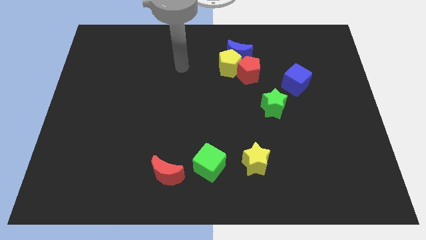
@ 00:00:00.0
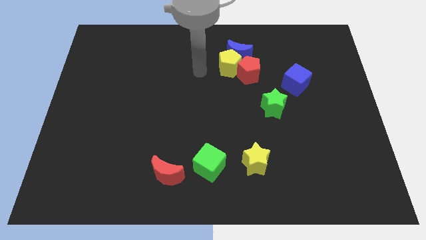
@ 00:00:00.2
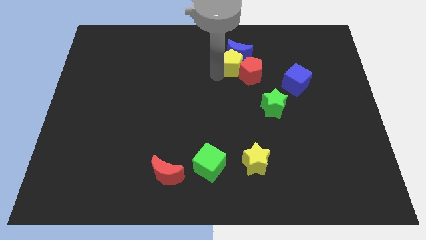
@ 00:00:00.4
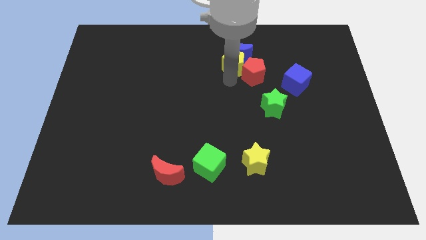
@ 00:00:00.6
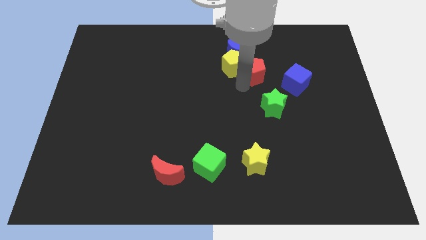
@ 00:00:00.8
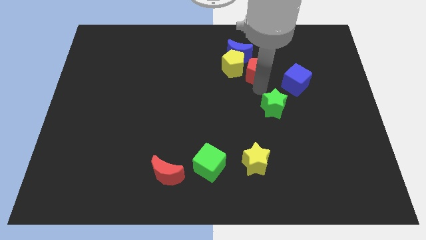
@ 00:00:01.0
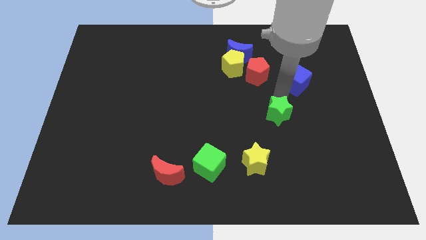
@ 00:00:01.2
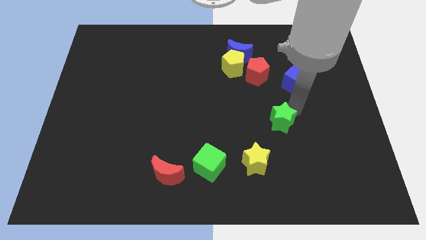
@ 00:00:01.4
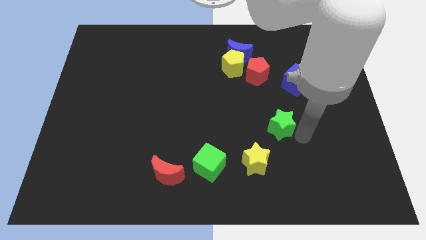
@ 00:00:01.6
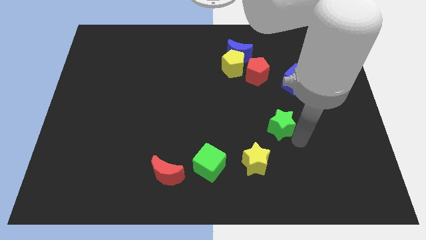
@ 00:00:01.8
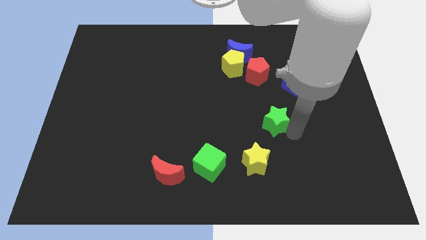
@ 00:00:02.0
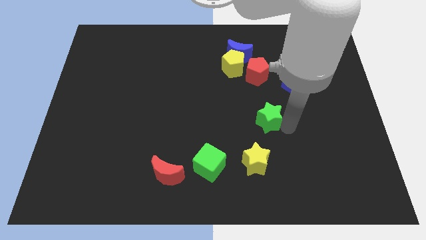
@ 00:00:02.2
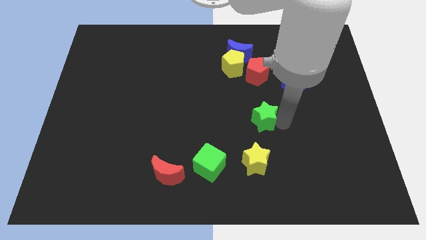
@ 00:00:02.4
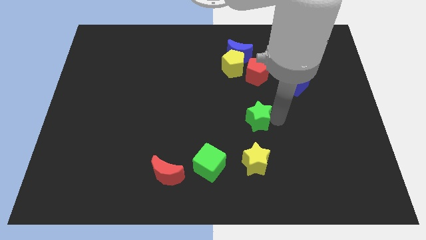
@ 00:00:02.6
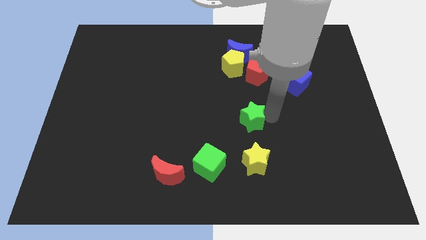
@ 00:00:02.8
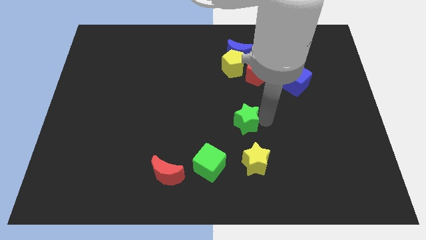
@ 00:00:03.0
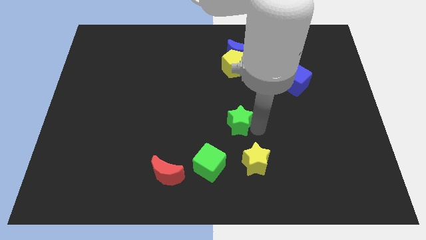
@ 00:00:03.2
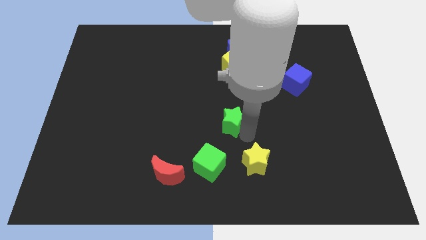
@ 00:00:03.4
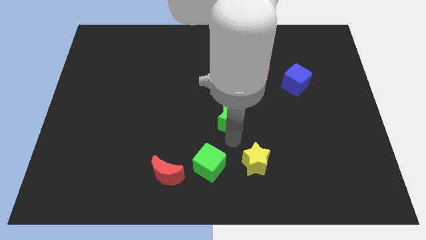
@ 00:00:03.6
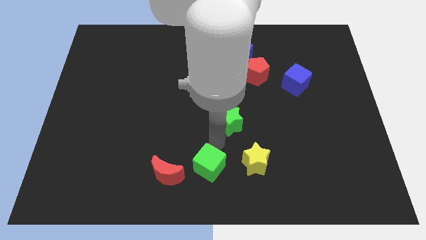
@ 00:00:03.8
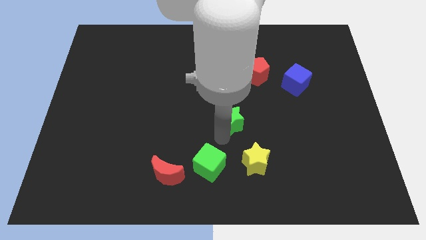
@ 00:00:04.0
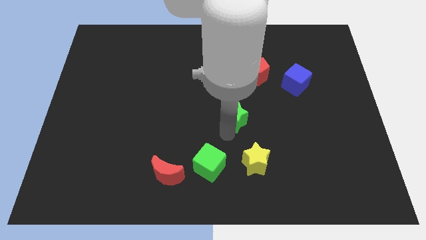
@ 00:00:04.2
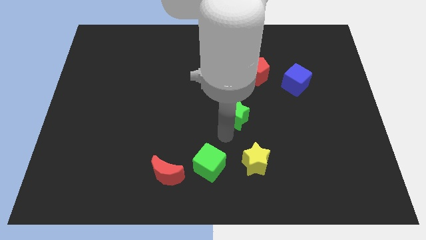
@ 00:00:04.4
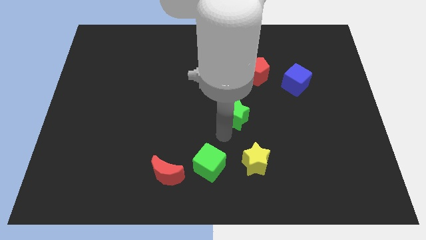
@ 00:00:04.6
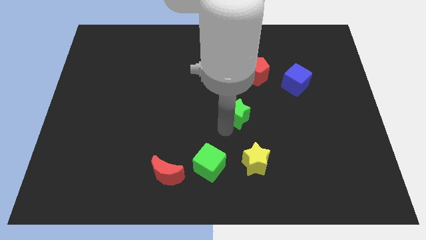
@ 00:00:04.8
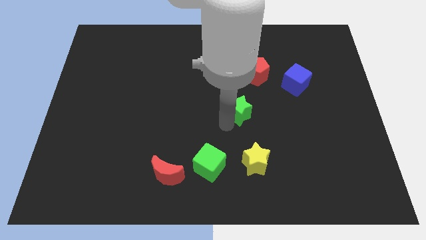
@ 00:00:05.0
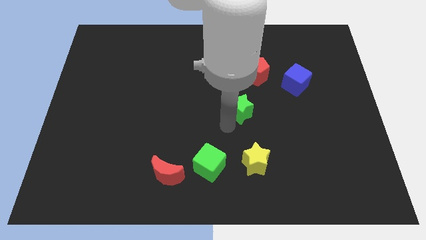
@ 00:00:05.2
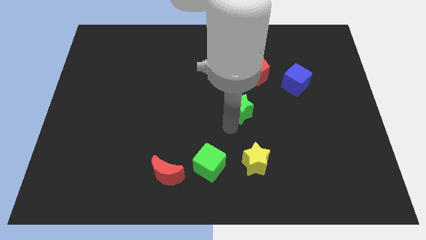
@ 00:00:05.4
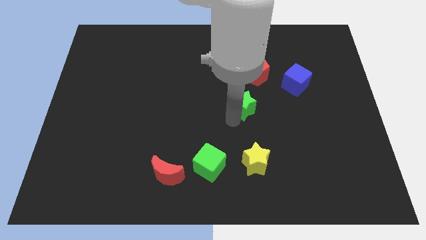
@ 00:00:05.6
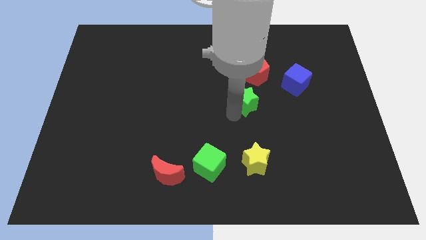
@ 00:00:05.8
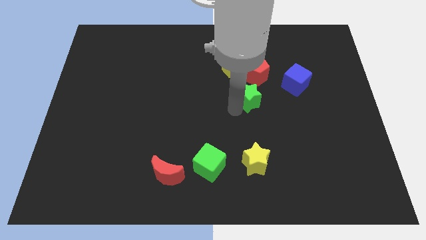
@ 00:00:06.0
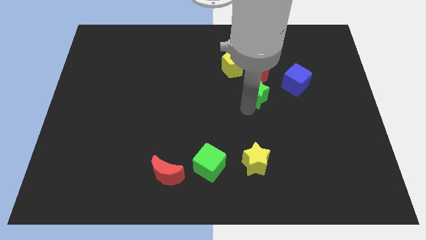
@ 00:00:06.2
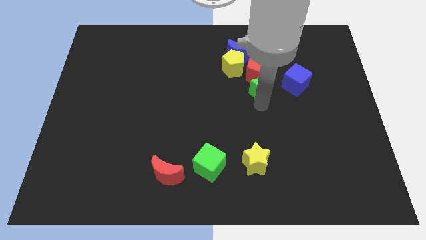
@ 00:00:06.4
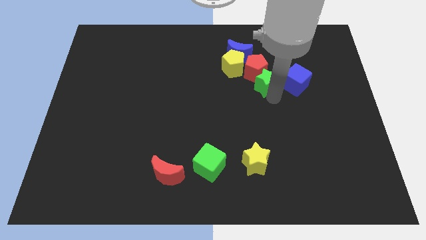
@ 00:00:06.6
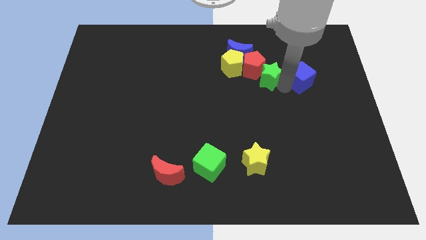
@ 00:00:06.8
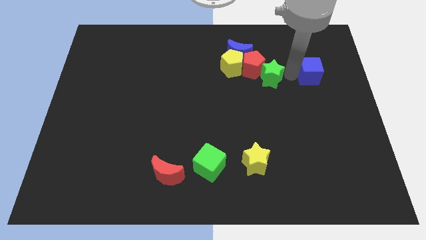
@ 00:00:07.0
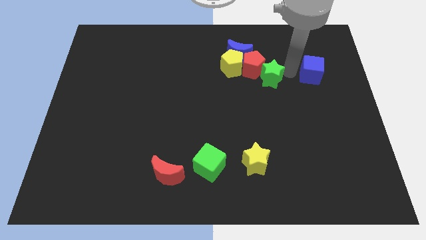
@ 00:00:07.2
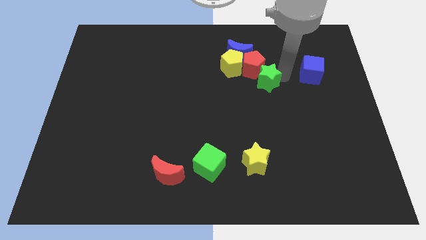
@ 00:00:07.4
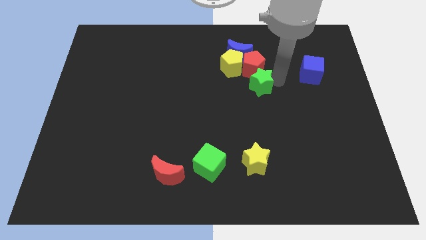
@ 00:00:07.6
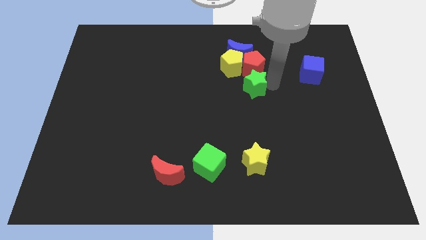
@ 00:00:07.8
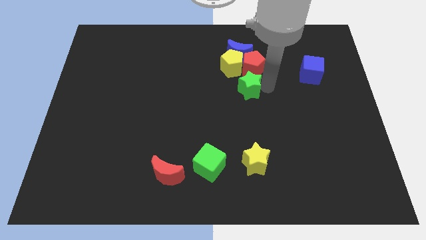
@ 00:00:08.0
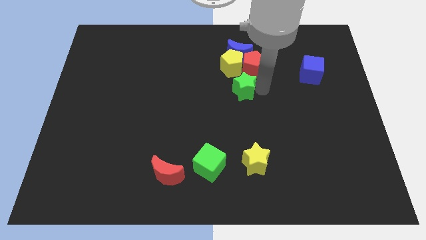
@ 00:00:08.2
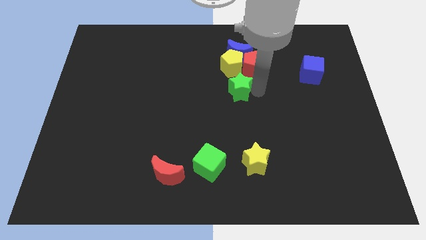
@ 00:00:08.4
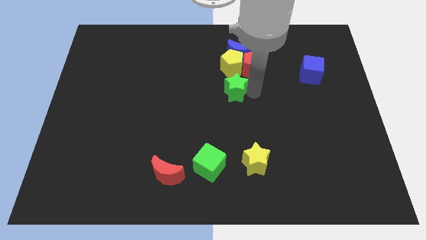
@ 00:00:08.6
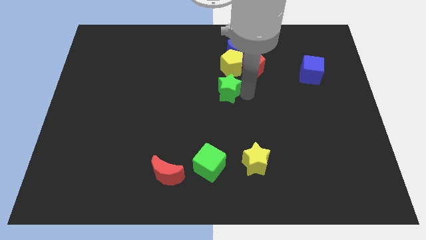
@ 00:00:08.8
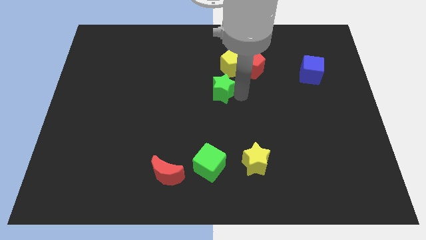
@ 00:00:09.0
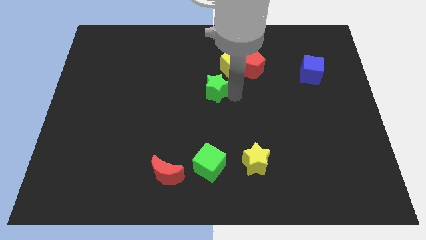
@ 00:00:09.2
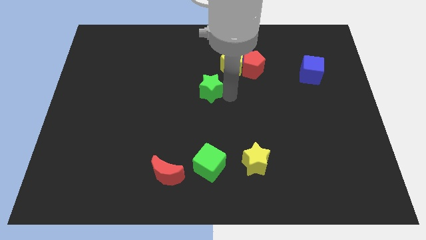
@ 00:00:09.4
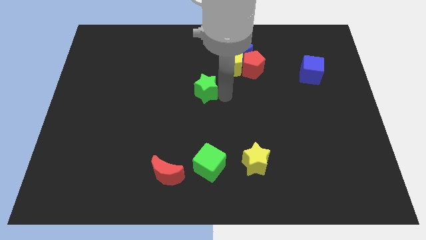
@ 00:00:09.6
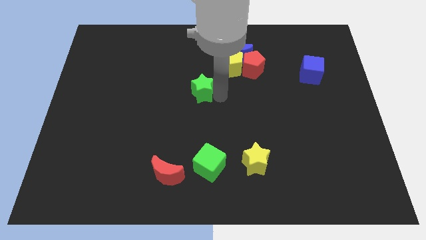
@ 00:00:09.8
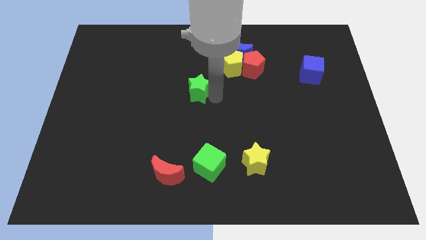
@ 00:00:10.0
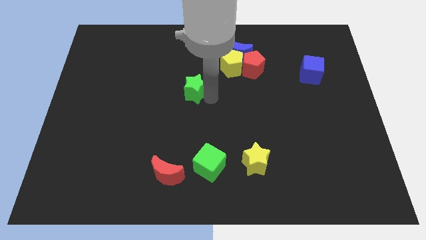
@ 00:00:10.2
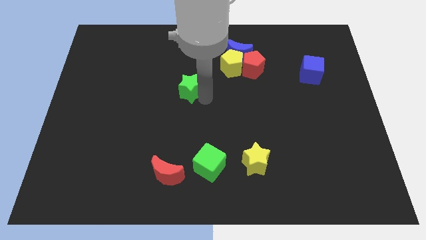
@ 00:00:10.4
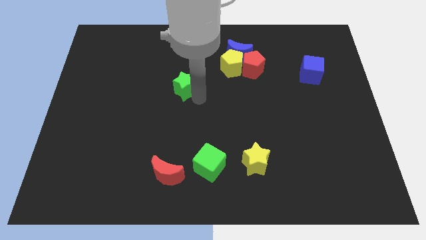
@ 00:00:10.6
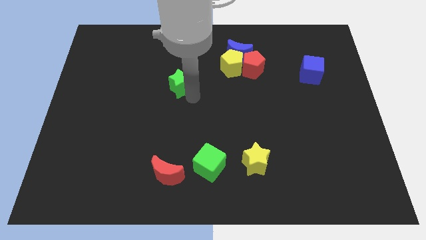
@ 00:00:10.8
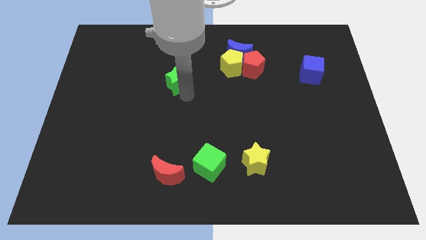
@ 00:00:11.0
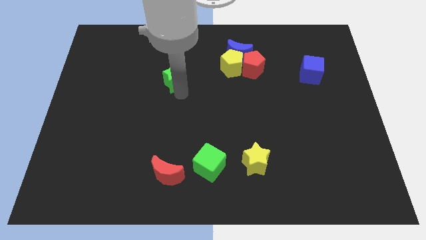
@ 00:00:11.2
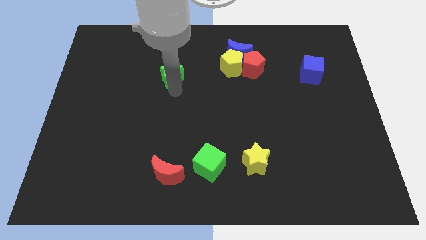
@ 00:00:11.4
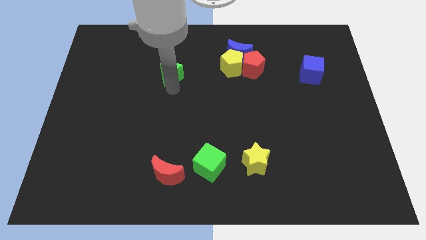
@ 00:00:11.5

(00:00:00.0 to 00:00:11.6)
put the green star just left of the yellow pentagon

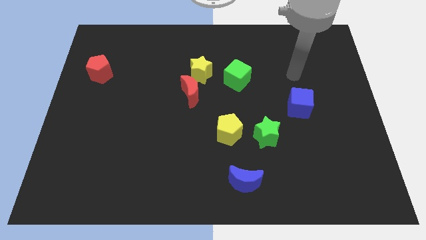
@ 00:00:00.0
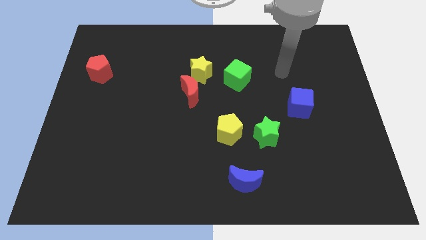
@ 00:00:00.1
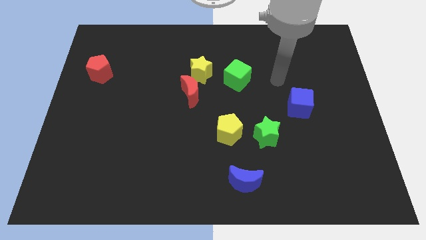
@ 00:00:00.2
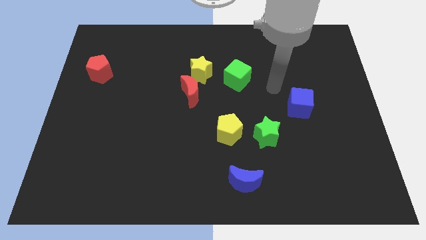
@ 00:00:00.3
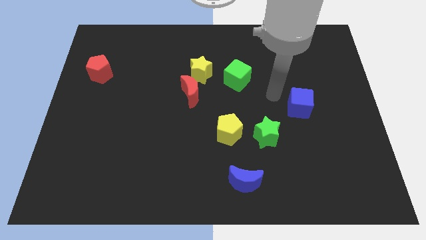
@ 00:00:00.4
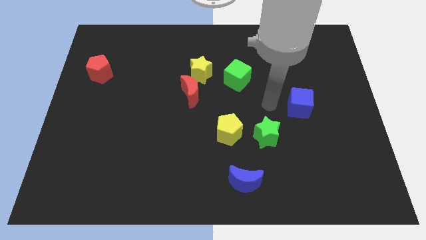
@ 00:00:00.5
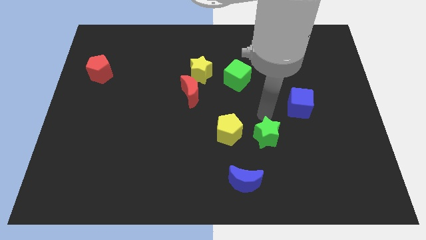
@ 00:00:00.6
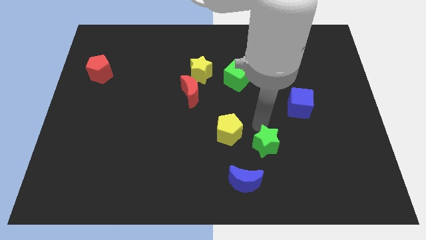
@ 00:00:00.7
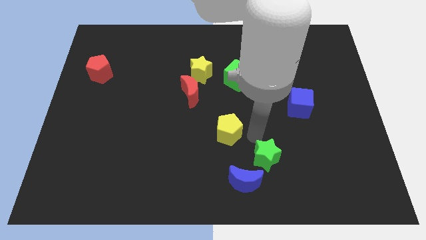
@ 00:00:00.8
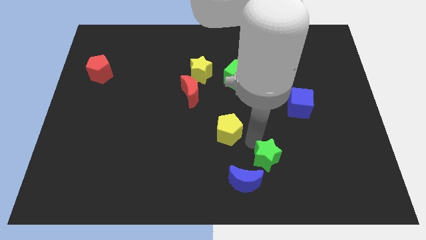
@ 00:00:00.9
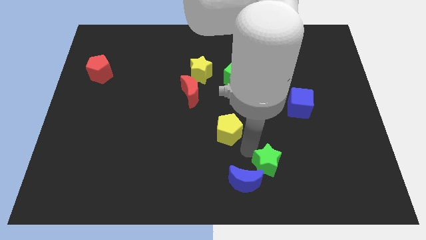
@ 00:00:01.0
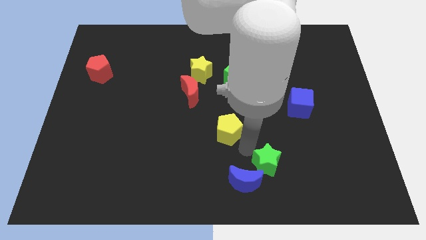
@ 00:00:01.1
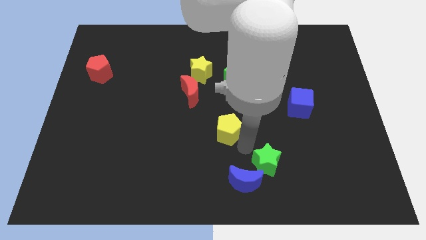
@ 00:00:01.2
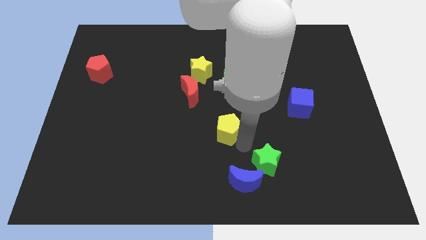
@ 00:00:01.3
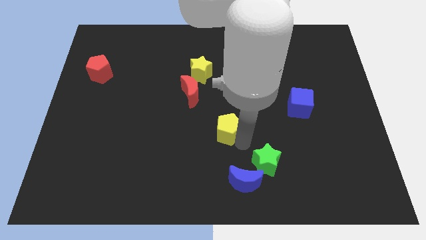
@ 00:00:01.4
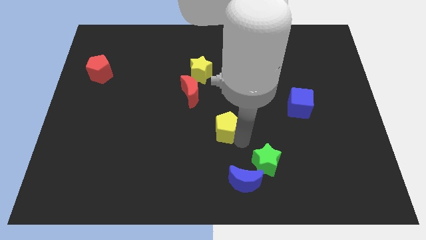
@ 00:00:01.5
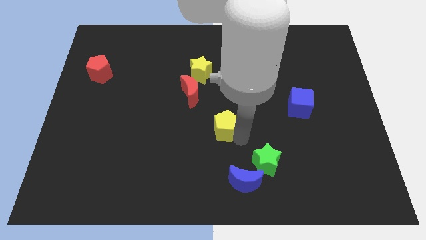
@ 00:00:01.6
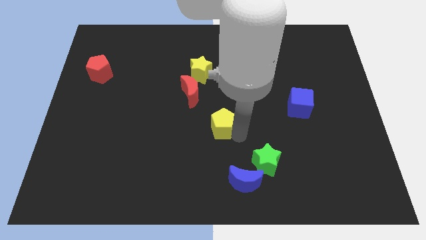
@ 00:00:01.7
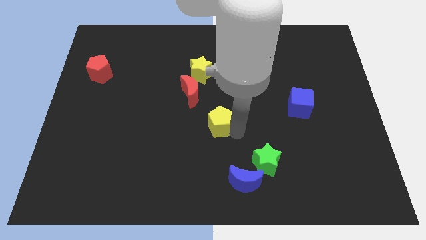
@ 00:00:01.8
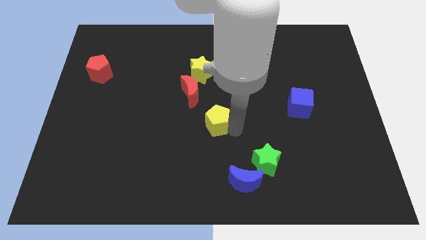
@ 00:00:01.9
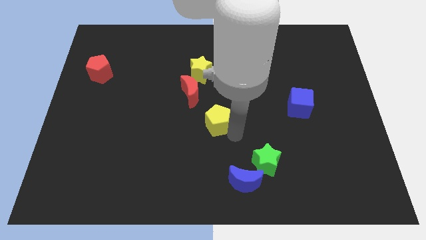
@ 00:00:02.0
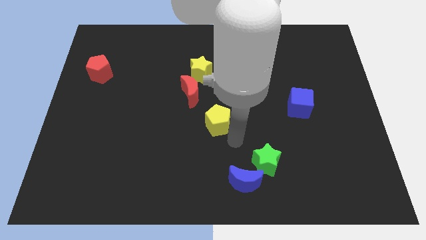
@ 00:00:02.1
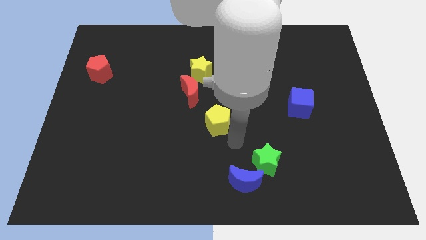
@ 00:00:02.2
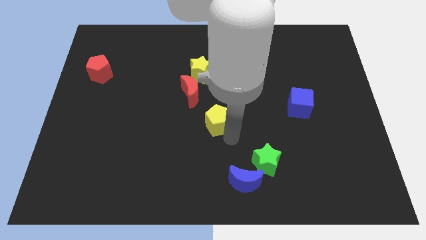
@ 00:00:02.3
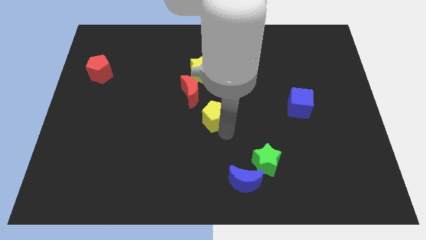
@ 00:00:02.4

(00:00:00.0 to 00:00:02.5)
push the yellow pentagon to the bottom of the yellow star
